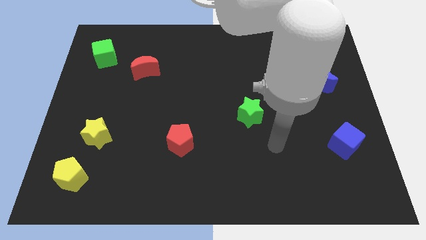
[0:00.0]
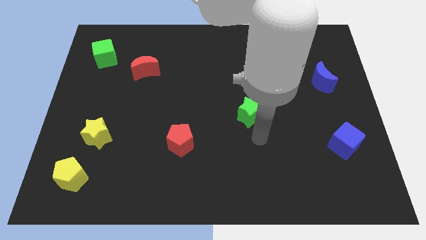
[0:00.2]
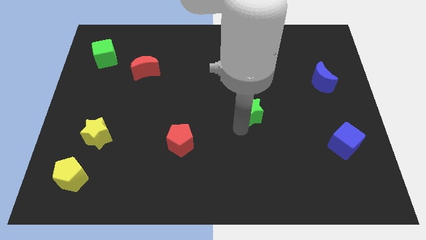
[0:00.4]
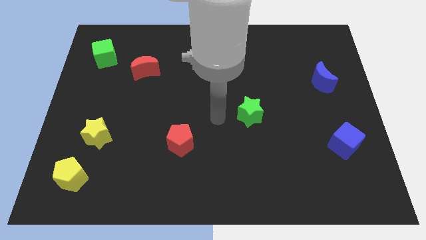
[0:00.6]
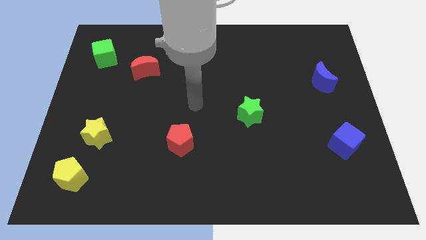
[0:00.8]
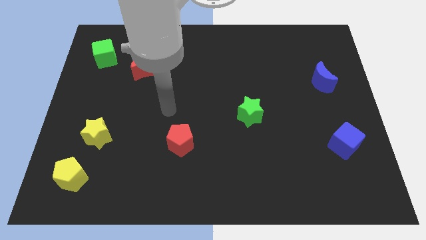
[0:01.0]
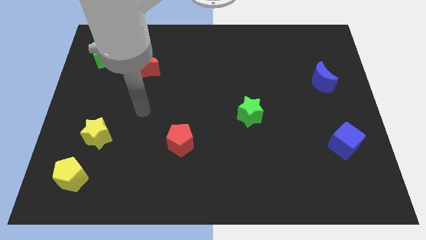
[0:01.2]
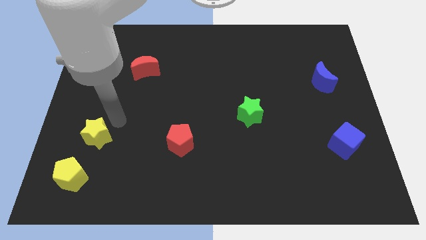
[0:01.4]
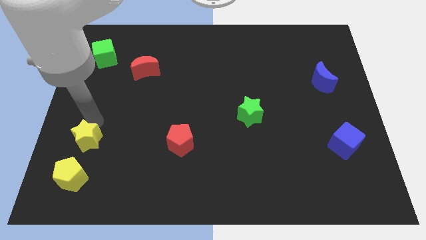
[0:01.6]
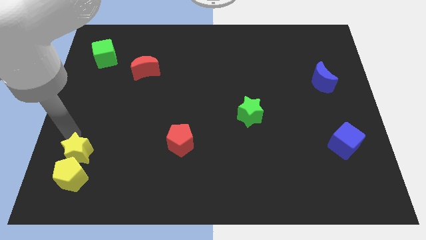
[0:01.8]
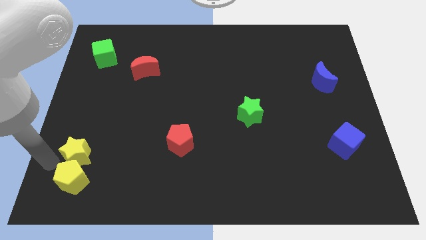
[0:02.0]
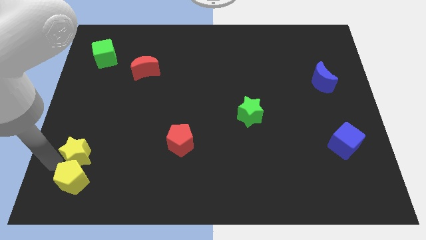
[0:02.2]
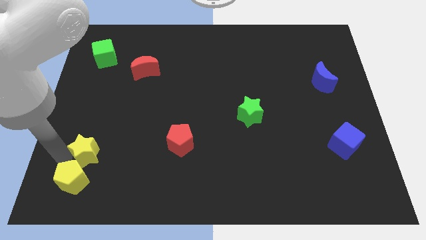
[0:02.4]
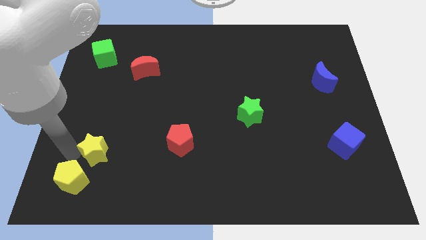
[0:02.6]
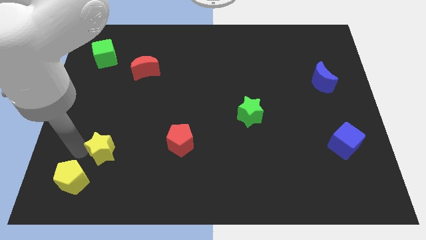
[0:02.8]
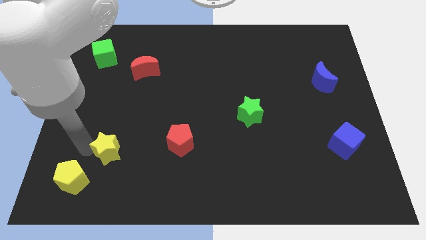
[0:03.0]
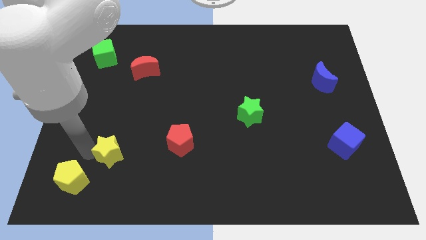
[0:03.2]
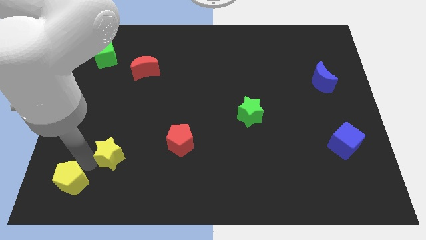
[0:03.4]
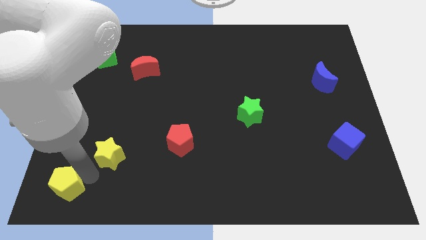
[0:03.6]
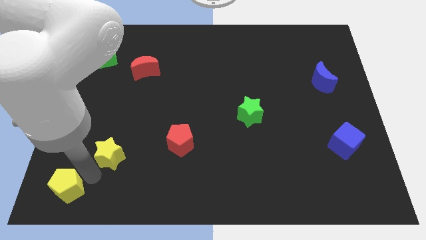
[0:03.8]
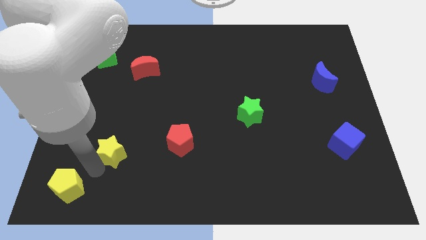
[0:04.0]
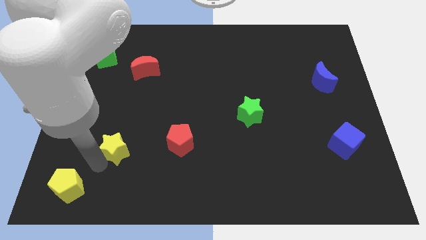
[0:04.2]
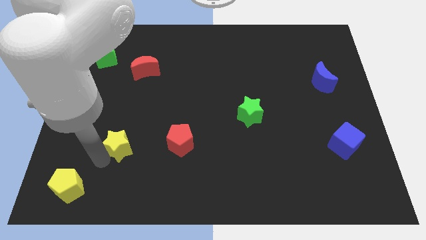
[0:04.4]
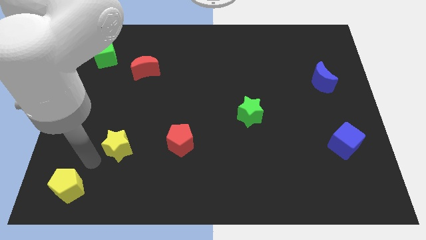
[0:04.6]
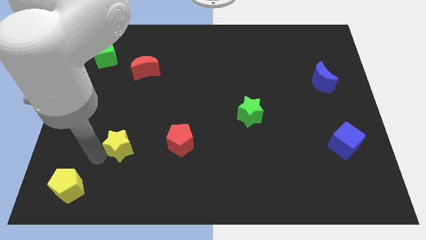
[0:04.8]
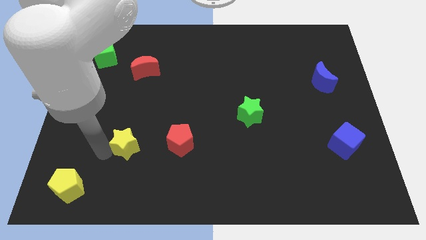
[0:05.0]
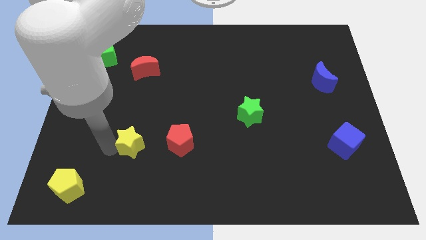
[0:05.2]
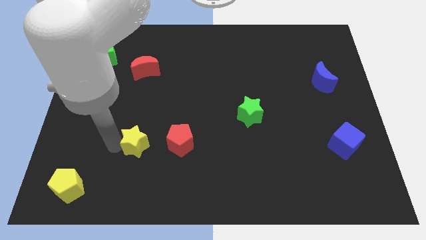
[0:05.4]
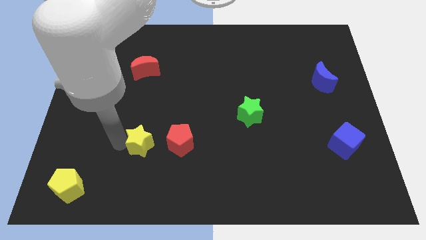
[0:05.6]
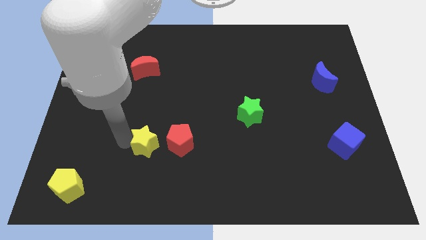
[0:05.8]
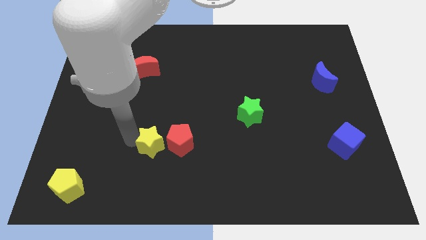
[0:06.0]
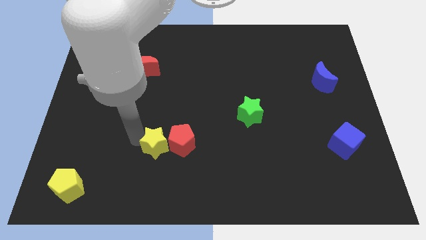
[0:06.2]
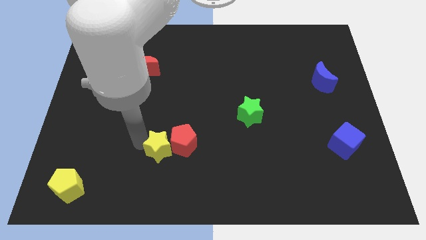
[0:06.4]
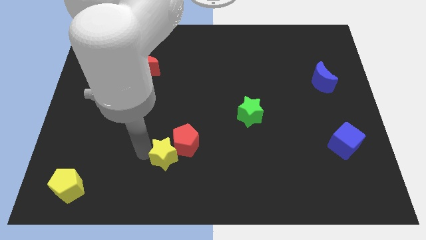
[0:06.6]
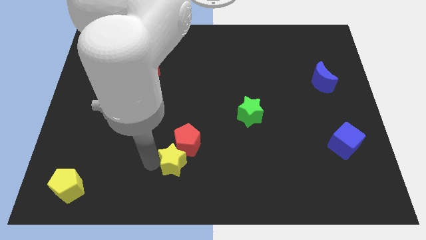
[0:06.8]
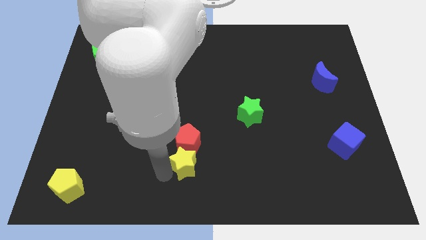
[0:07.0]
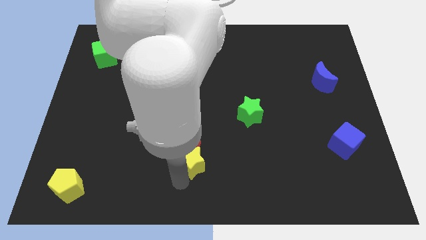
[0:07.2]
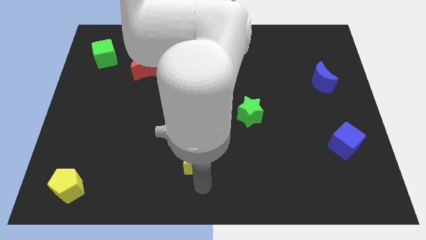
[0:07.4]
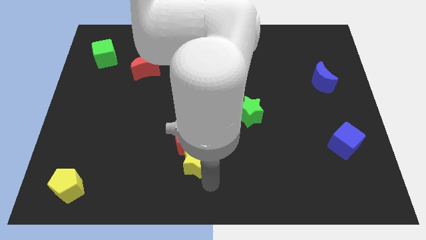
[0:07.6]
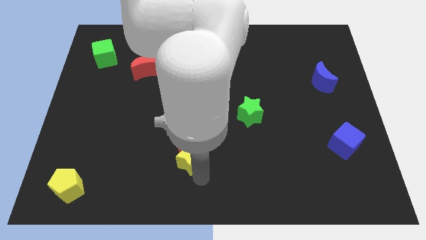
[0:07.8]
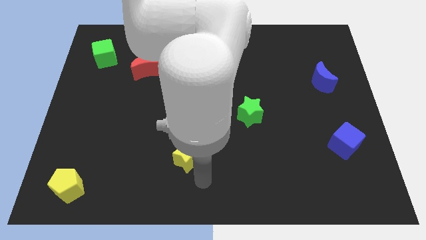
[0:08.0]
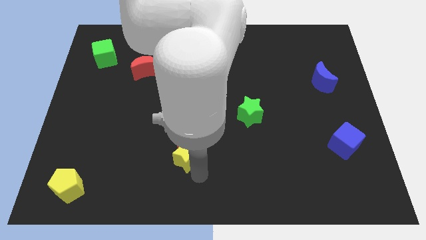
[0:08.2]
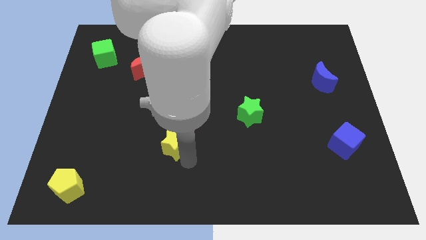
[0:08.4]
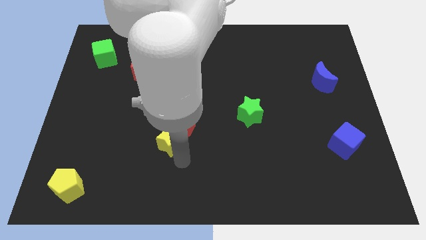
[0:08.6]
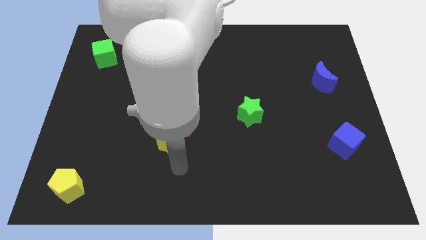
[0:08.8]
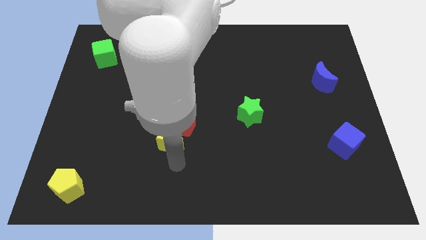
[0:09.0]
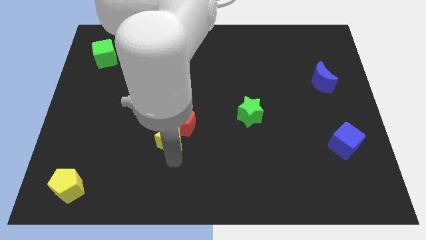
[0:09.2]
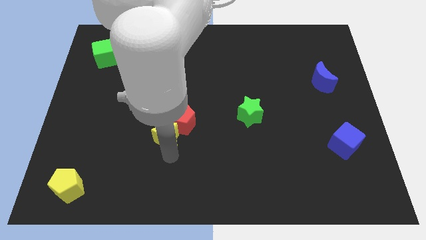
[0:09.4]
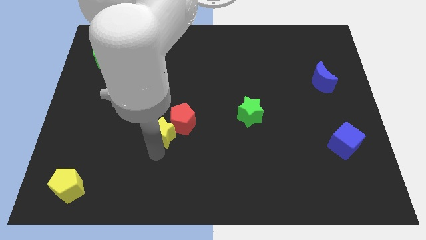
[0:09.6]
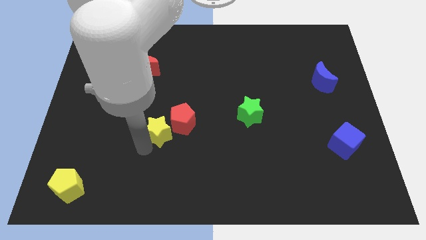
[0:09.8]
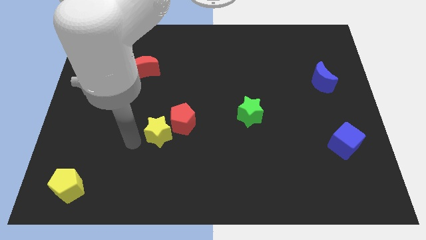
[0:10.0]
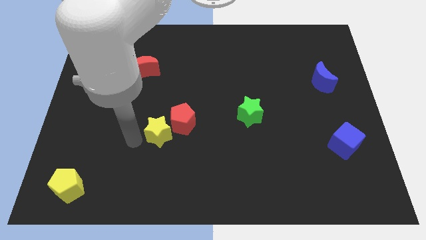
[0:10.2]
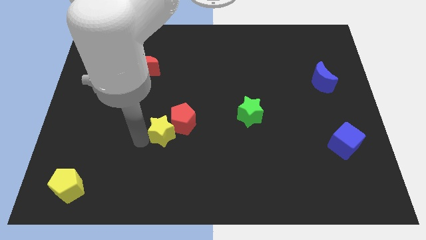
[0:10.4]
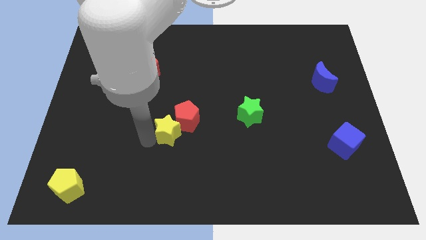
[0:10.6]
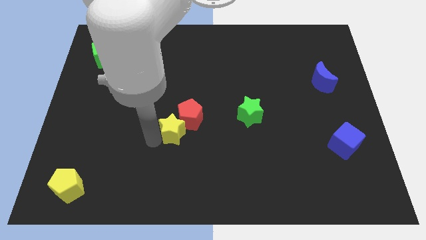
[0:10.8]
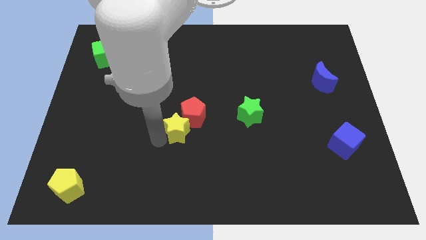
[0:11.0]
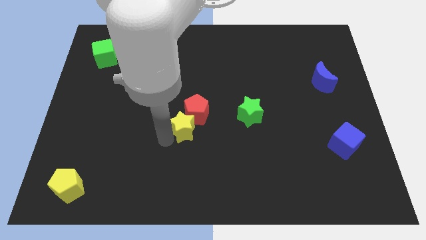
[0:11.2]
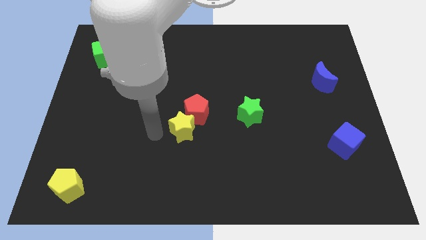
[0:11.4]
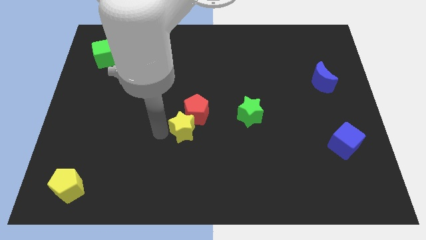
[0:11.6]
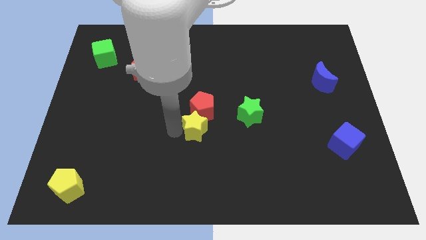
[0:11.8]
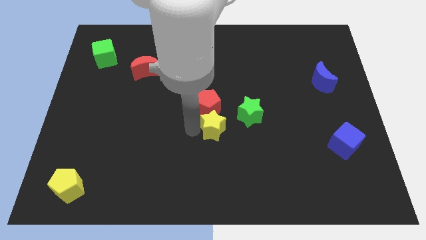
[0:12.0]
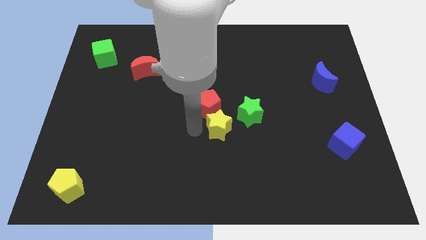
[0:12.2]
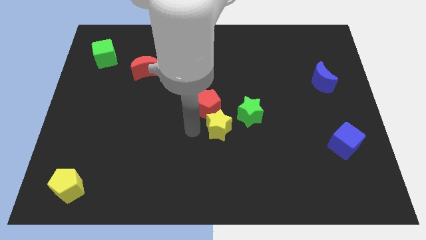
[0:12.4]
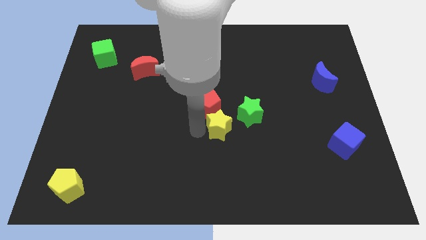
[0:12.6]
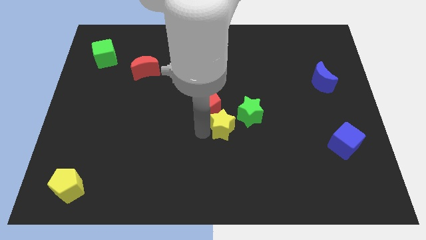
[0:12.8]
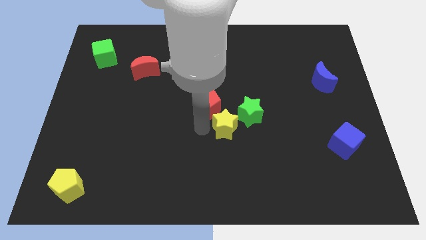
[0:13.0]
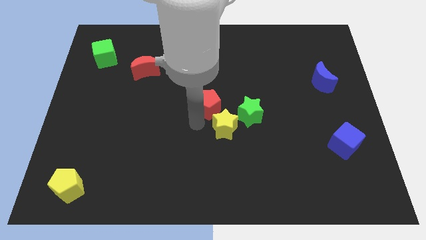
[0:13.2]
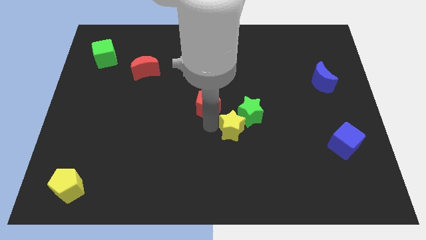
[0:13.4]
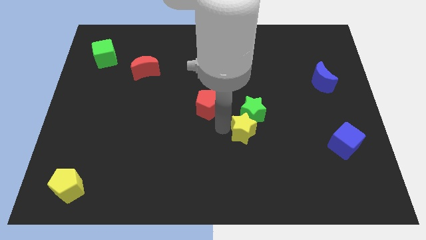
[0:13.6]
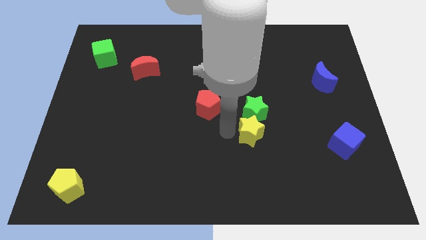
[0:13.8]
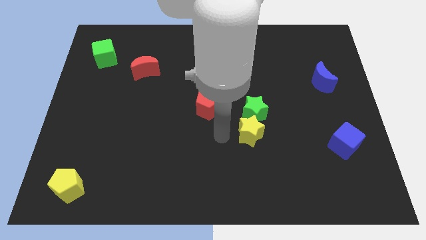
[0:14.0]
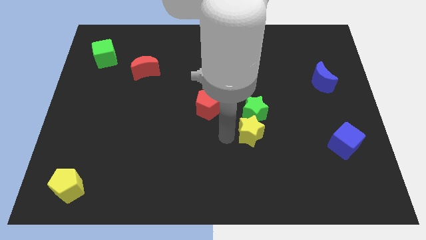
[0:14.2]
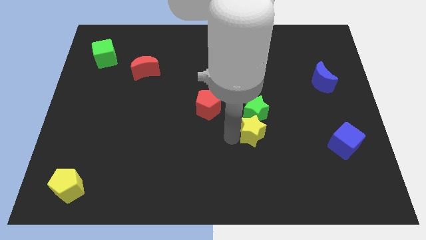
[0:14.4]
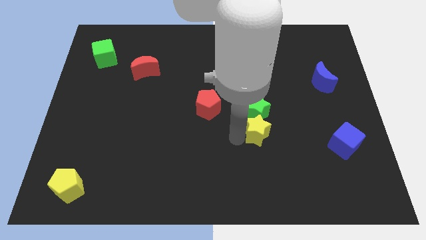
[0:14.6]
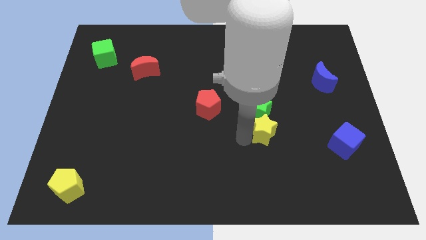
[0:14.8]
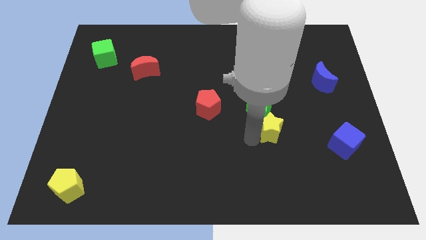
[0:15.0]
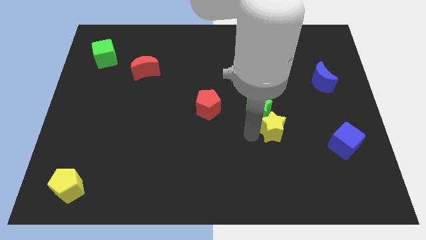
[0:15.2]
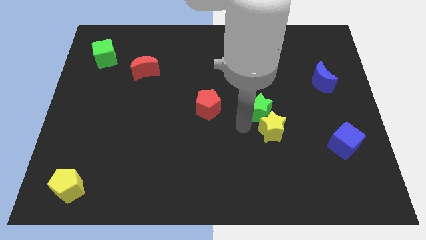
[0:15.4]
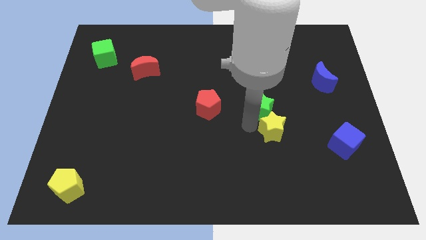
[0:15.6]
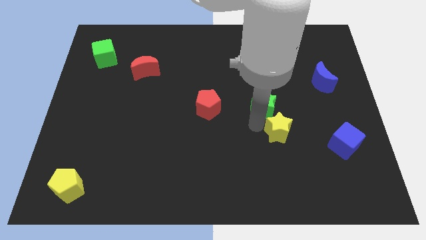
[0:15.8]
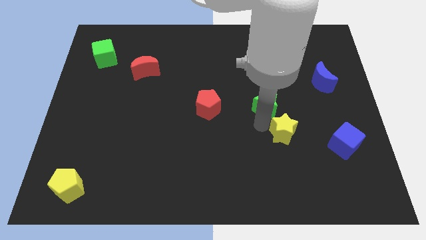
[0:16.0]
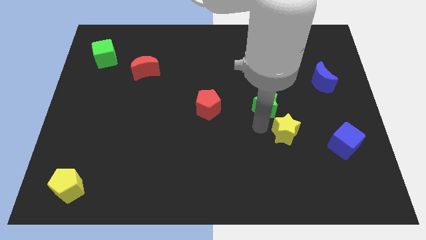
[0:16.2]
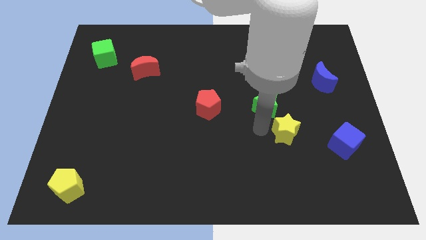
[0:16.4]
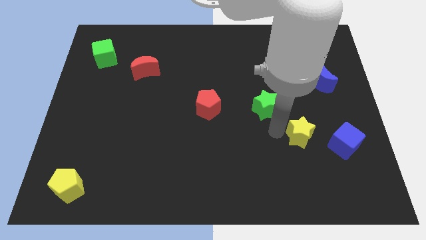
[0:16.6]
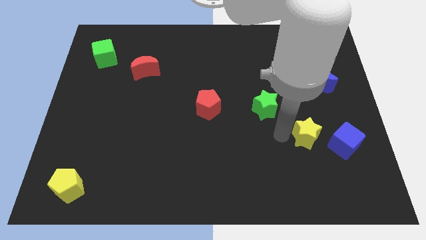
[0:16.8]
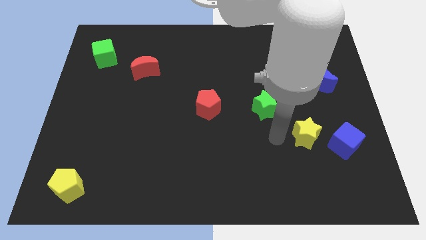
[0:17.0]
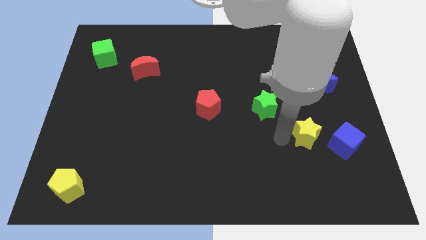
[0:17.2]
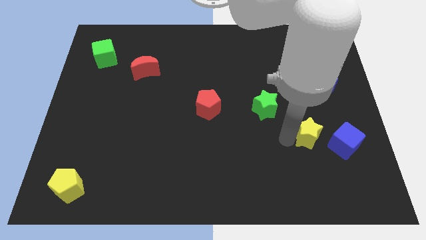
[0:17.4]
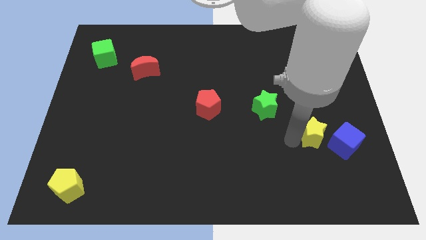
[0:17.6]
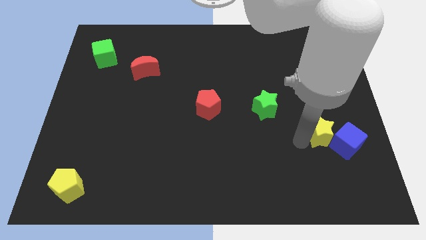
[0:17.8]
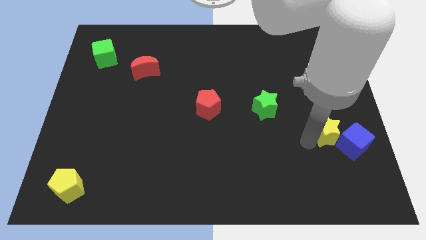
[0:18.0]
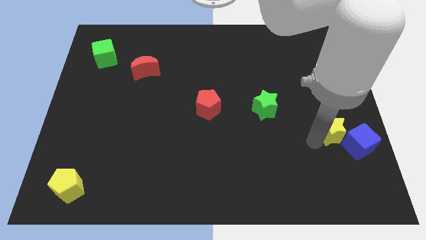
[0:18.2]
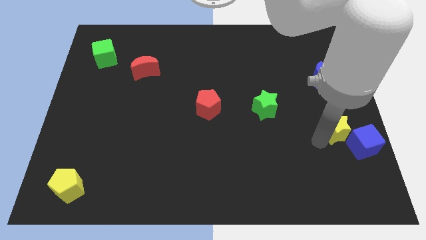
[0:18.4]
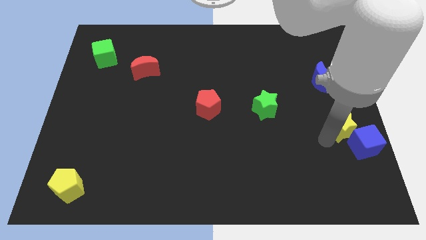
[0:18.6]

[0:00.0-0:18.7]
put the yellow star to the right side
